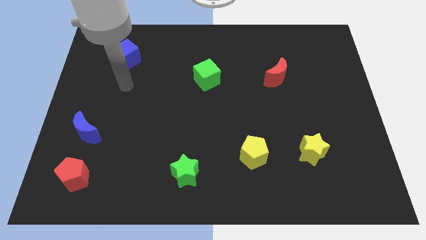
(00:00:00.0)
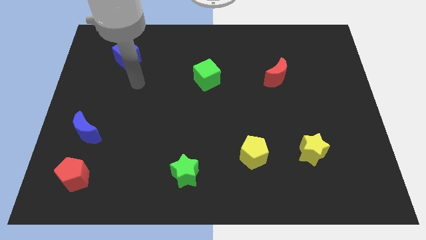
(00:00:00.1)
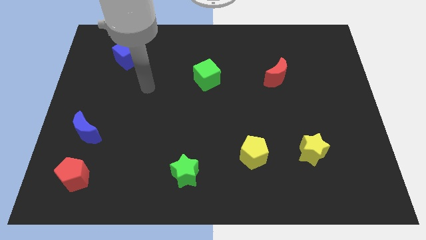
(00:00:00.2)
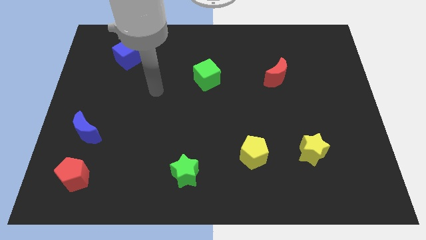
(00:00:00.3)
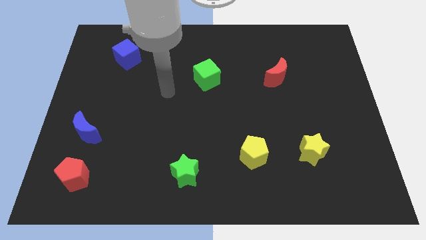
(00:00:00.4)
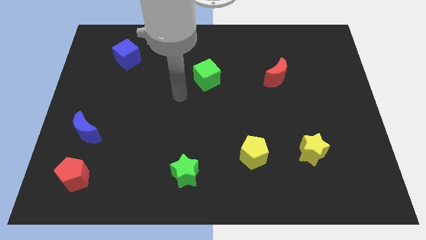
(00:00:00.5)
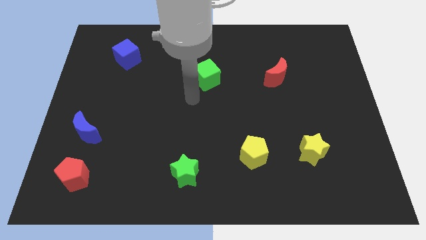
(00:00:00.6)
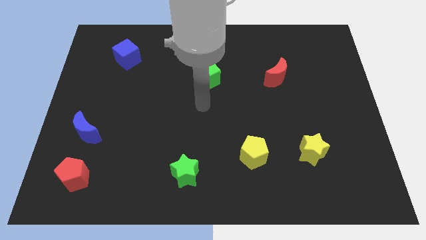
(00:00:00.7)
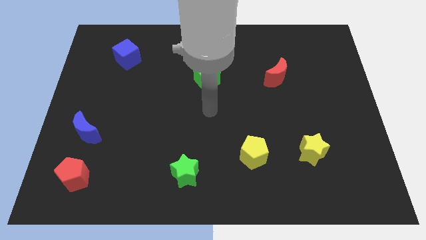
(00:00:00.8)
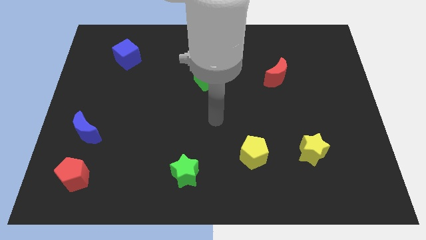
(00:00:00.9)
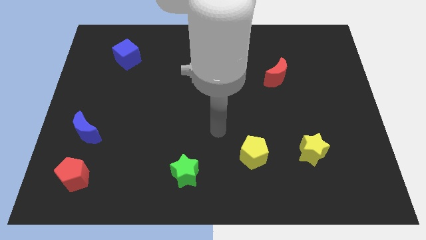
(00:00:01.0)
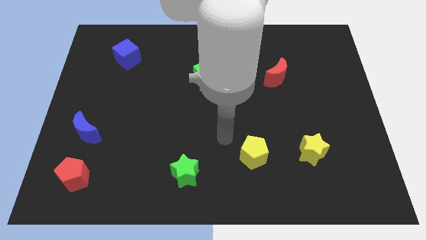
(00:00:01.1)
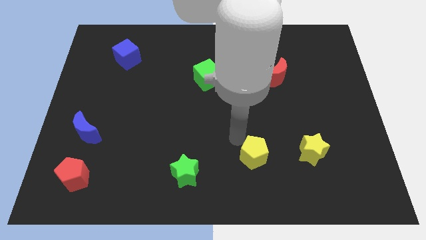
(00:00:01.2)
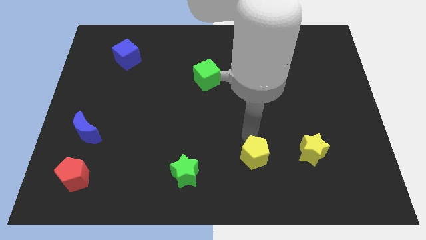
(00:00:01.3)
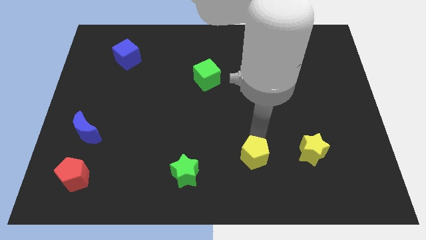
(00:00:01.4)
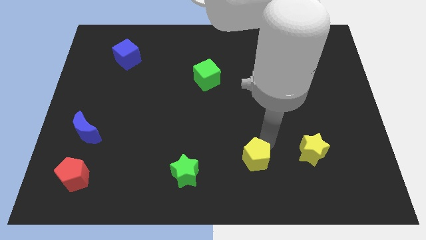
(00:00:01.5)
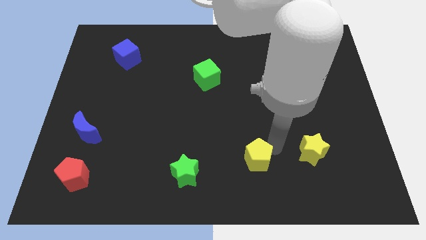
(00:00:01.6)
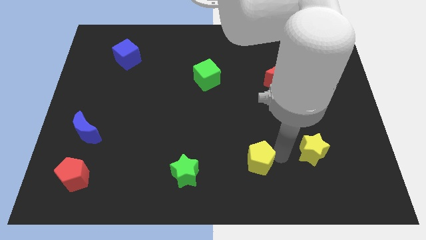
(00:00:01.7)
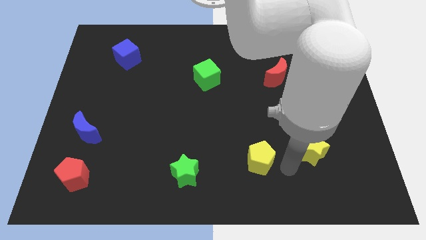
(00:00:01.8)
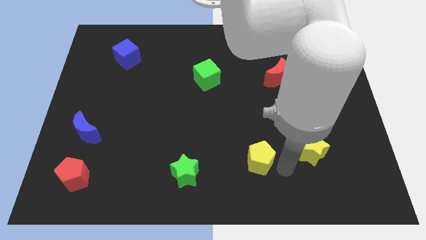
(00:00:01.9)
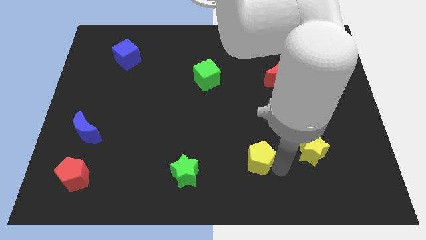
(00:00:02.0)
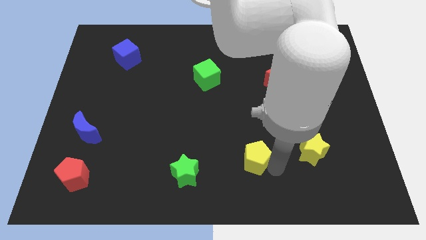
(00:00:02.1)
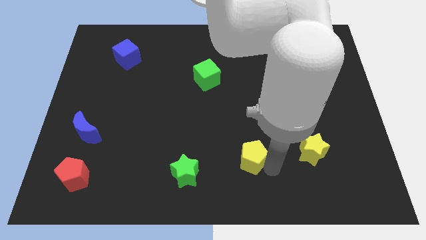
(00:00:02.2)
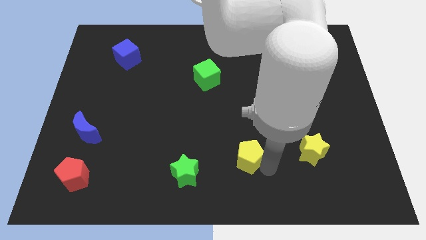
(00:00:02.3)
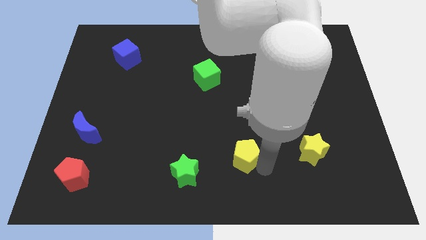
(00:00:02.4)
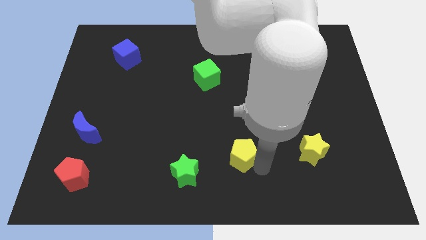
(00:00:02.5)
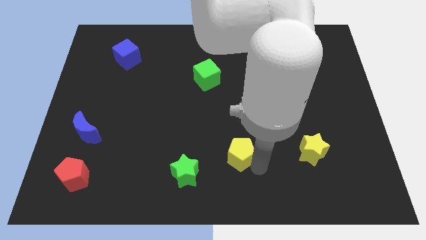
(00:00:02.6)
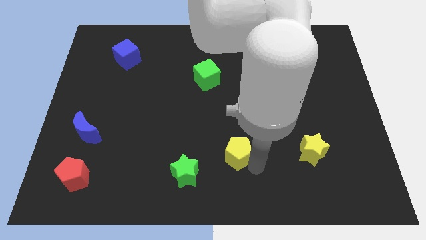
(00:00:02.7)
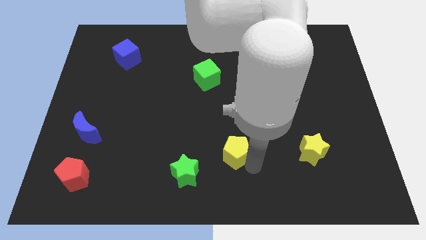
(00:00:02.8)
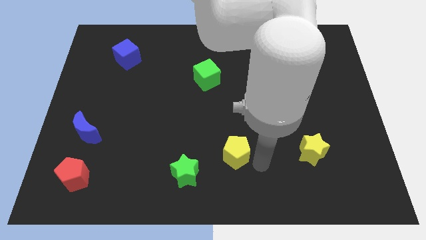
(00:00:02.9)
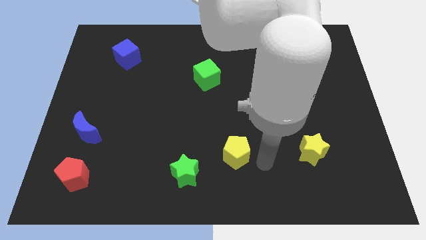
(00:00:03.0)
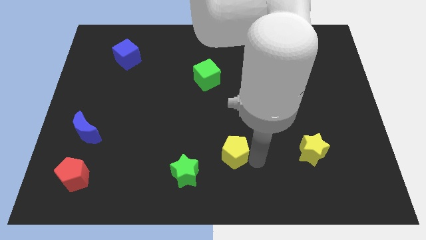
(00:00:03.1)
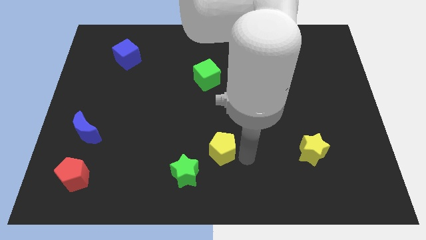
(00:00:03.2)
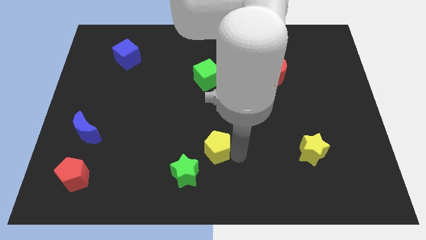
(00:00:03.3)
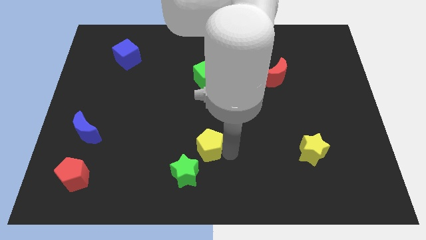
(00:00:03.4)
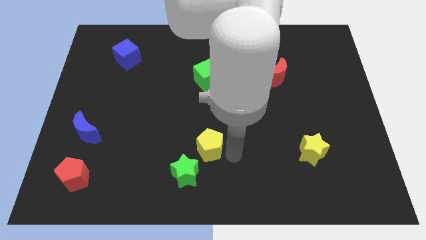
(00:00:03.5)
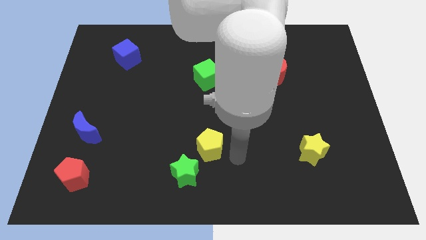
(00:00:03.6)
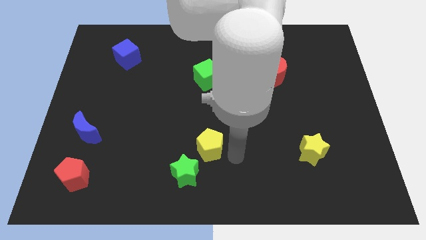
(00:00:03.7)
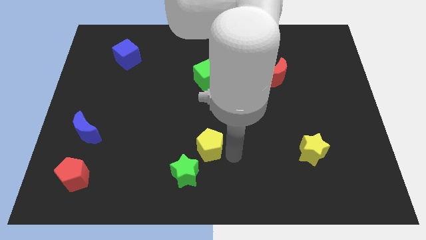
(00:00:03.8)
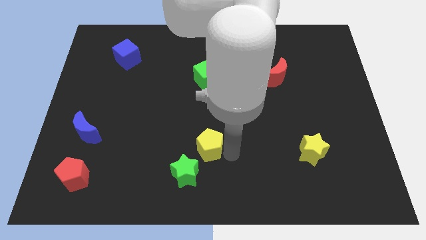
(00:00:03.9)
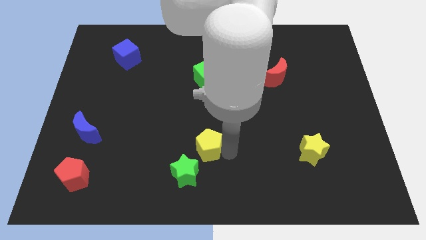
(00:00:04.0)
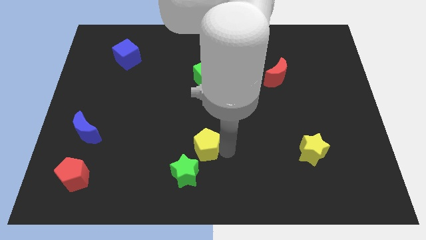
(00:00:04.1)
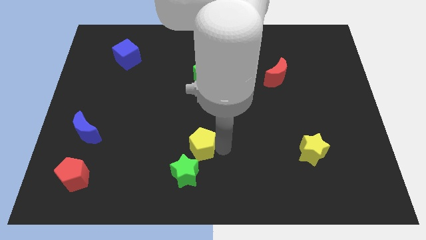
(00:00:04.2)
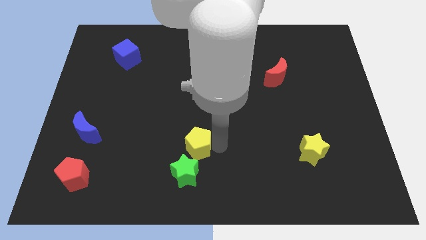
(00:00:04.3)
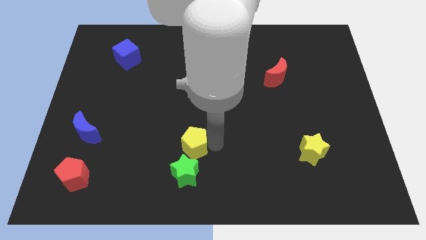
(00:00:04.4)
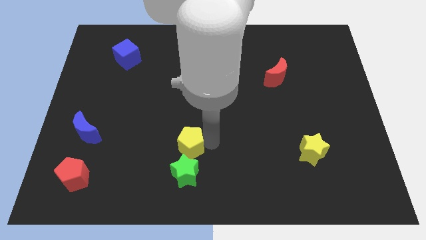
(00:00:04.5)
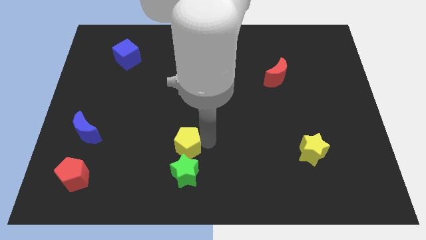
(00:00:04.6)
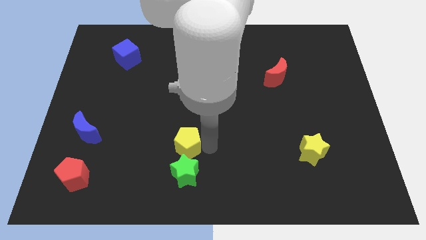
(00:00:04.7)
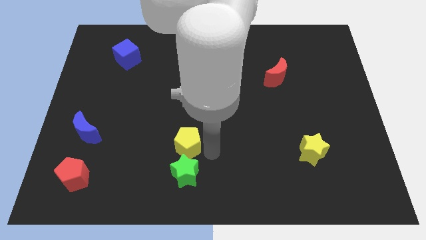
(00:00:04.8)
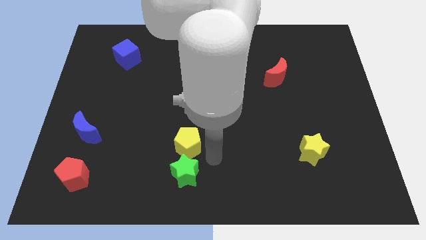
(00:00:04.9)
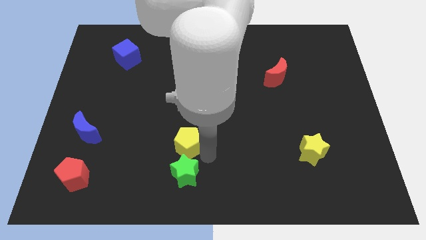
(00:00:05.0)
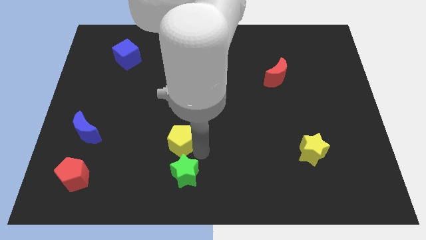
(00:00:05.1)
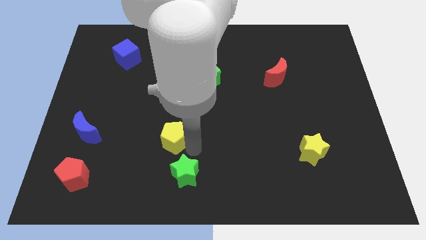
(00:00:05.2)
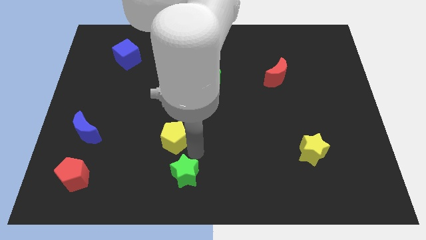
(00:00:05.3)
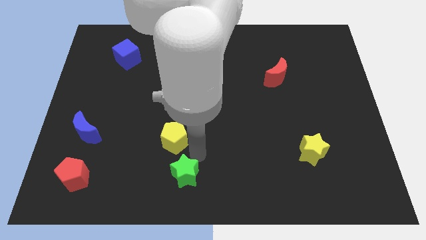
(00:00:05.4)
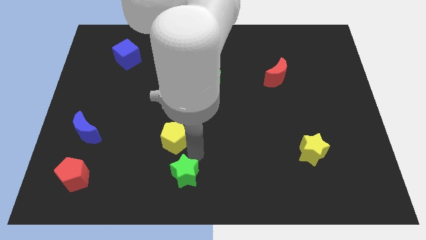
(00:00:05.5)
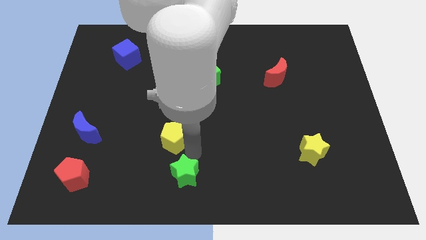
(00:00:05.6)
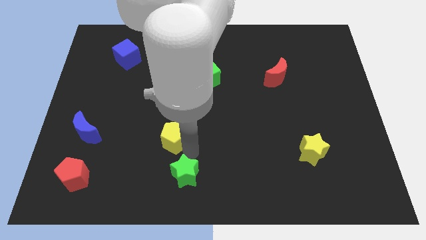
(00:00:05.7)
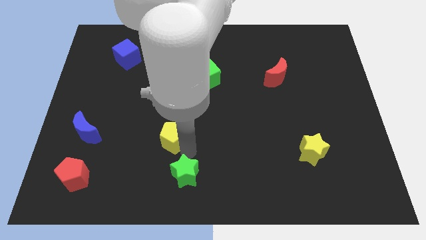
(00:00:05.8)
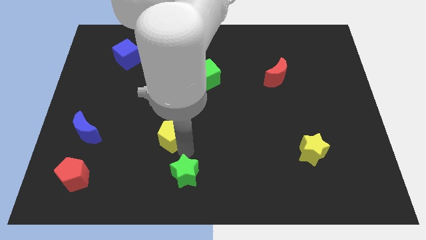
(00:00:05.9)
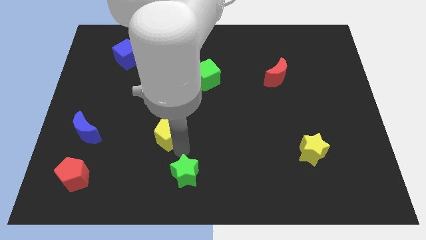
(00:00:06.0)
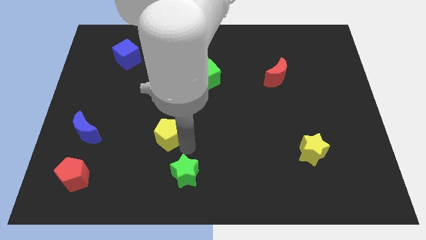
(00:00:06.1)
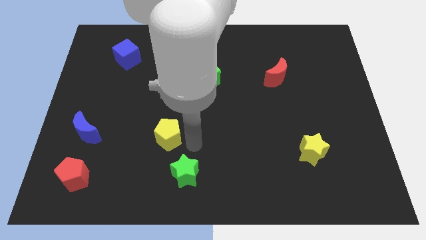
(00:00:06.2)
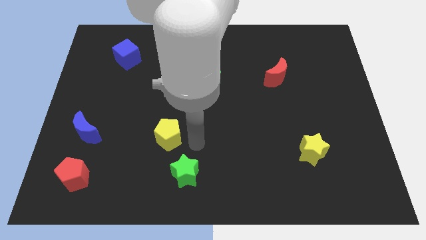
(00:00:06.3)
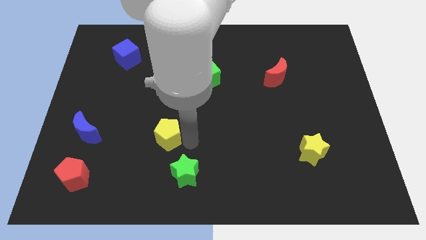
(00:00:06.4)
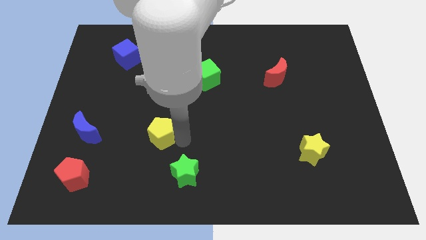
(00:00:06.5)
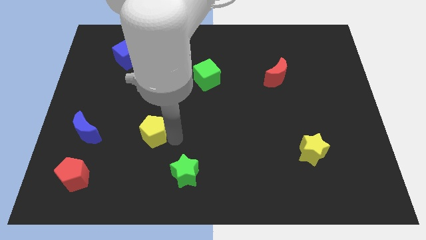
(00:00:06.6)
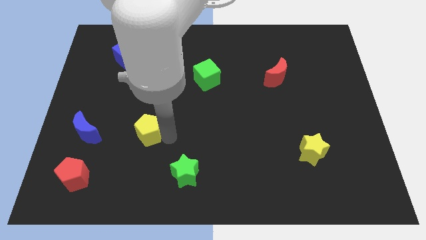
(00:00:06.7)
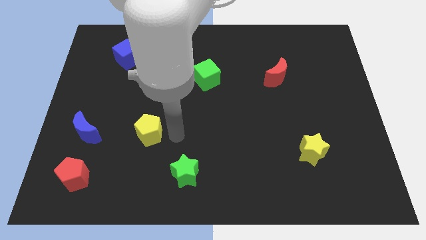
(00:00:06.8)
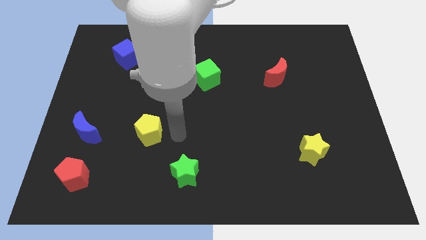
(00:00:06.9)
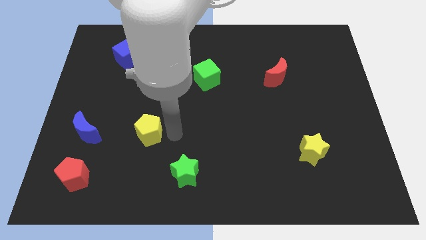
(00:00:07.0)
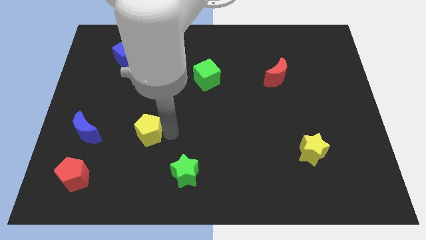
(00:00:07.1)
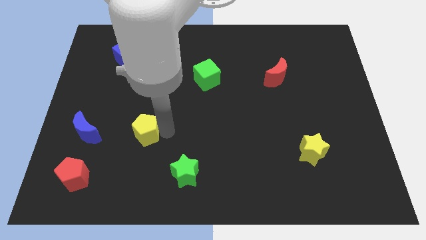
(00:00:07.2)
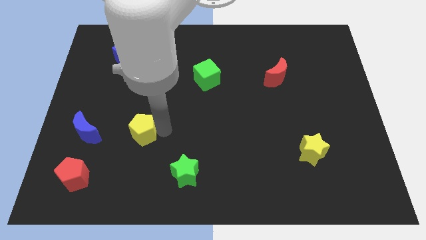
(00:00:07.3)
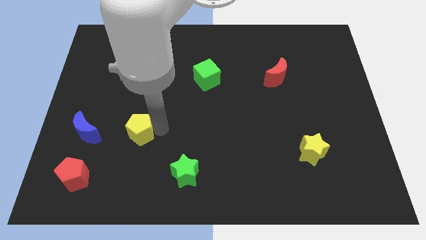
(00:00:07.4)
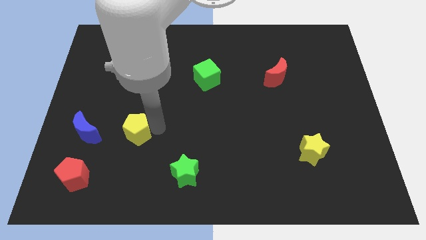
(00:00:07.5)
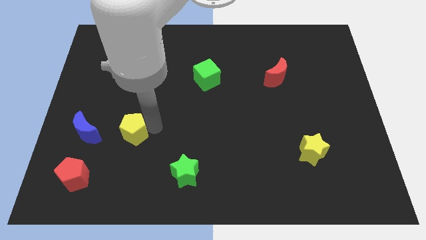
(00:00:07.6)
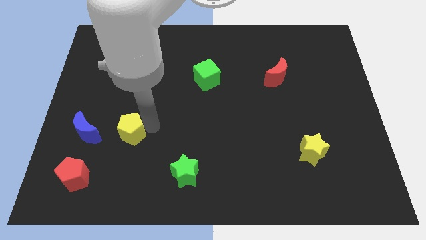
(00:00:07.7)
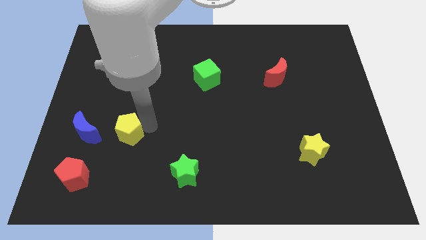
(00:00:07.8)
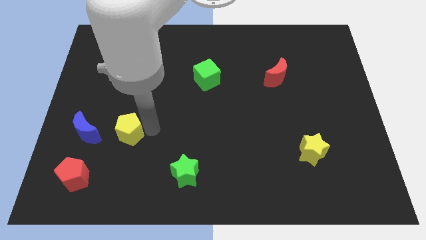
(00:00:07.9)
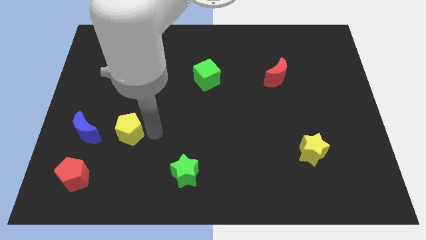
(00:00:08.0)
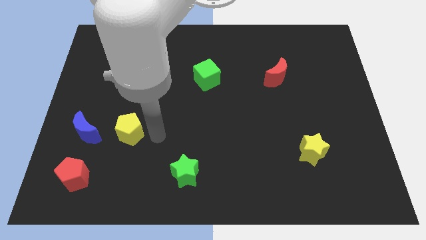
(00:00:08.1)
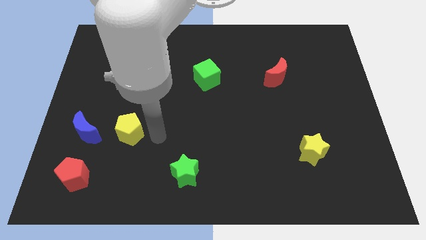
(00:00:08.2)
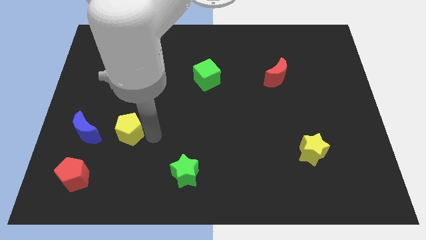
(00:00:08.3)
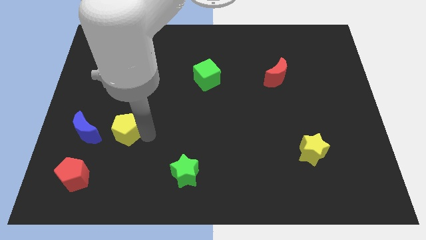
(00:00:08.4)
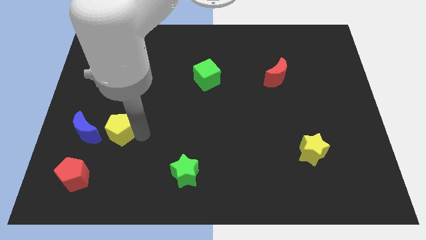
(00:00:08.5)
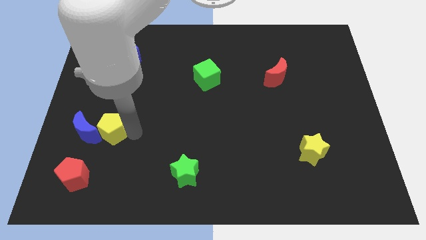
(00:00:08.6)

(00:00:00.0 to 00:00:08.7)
slide the yellow pentagon close to the blue moon
